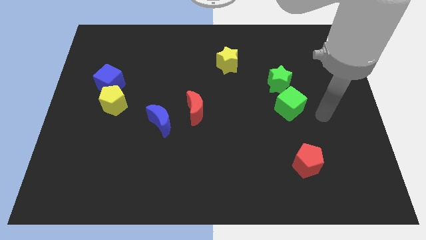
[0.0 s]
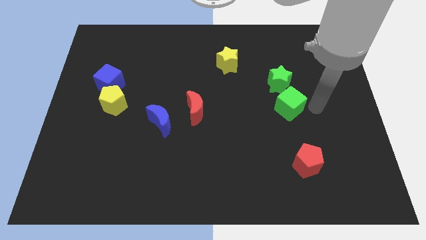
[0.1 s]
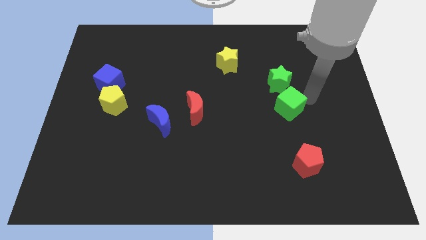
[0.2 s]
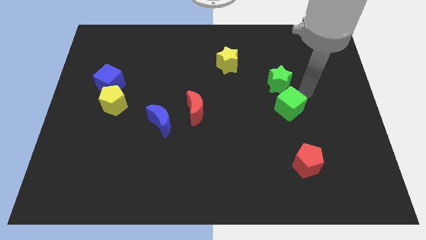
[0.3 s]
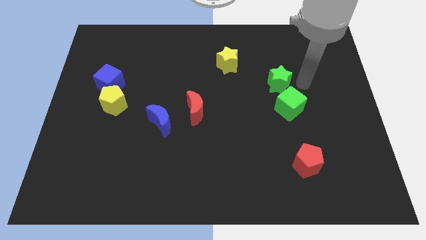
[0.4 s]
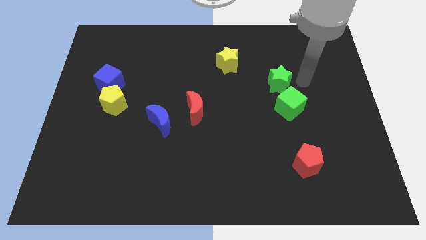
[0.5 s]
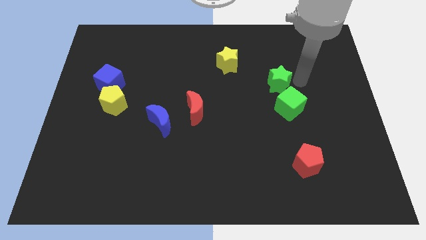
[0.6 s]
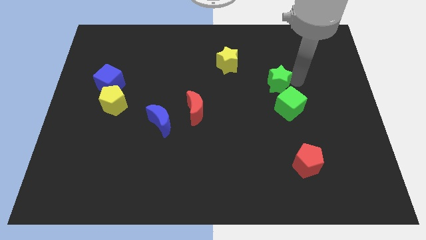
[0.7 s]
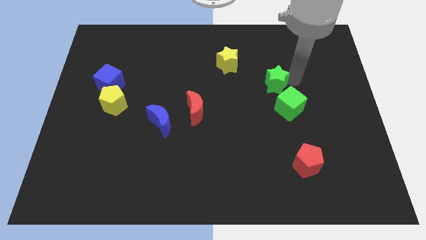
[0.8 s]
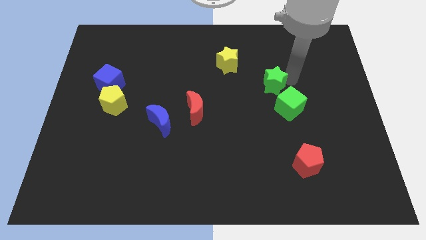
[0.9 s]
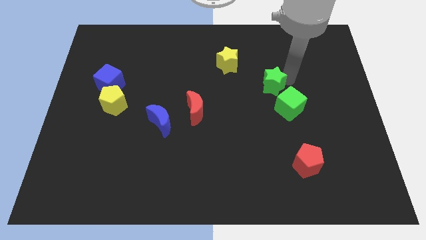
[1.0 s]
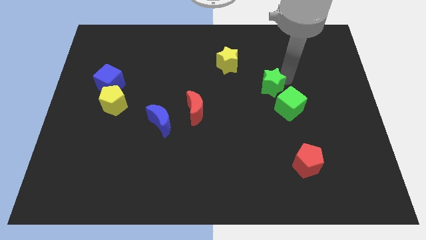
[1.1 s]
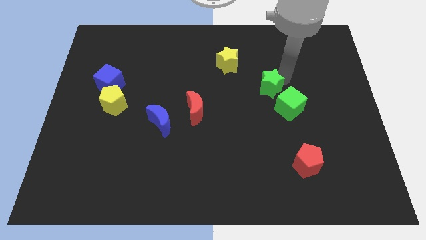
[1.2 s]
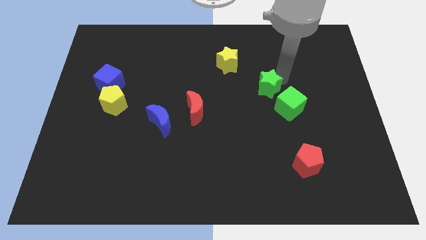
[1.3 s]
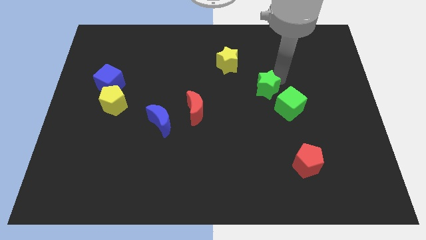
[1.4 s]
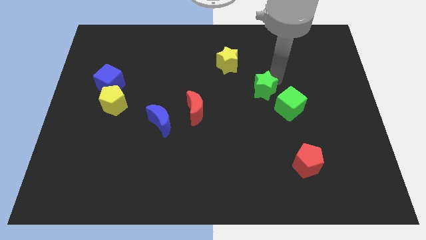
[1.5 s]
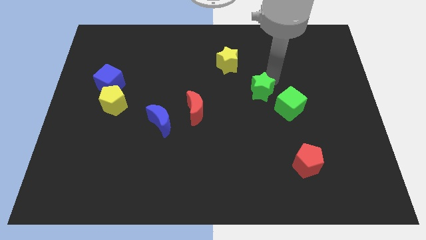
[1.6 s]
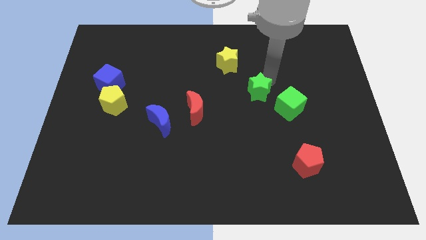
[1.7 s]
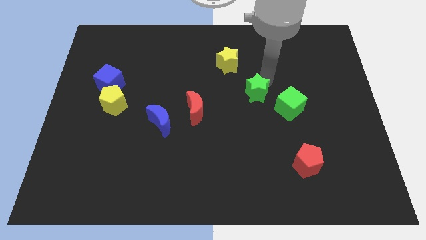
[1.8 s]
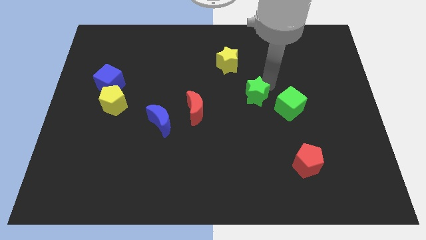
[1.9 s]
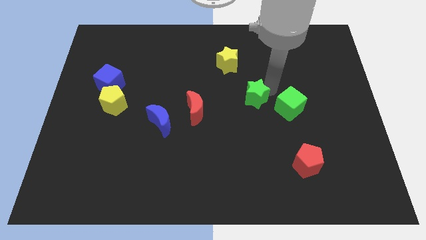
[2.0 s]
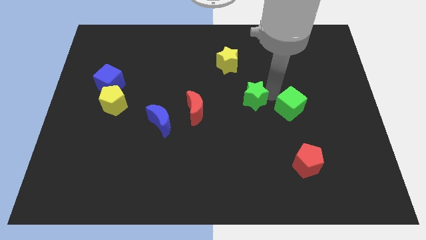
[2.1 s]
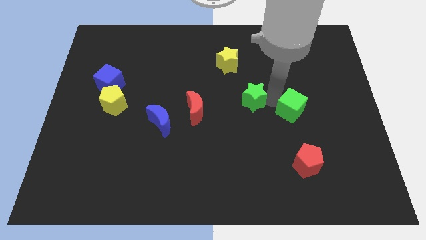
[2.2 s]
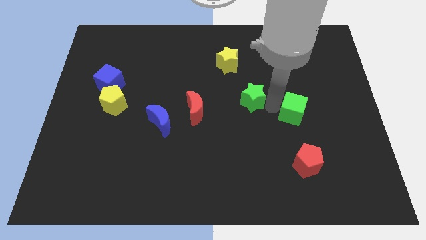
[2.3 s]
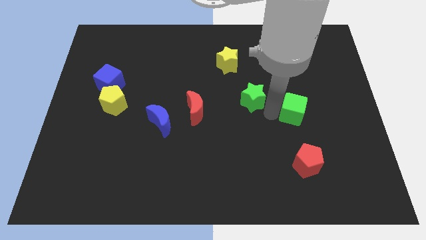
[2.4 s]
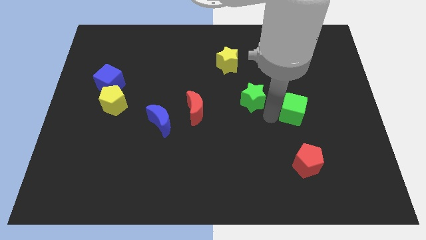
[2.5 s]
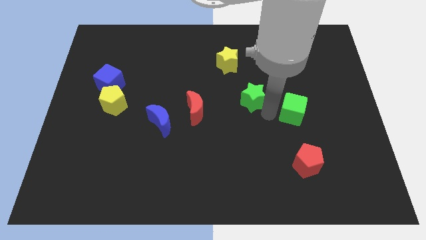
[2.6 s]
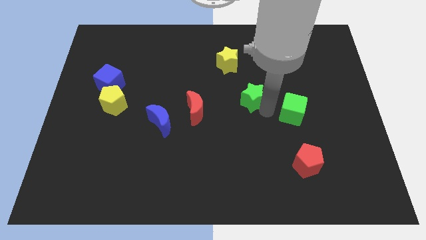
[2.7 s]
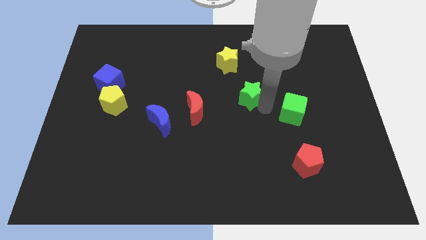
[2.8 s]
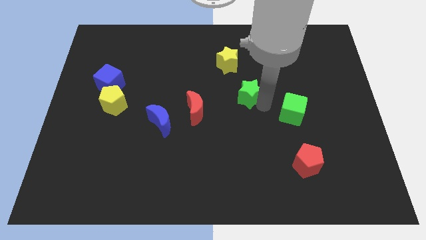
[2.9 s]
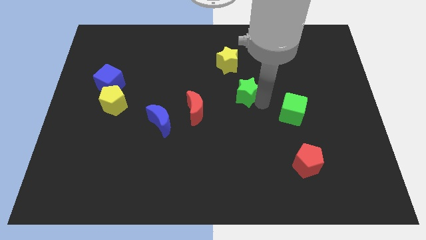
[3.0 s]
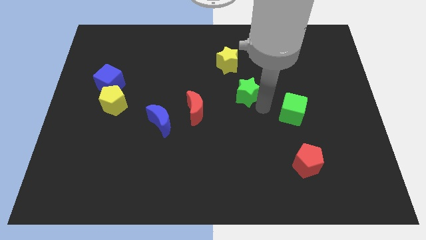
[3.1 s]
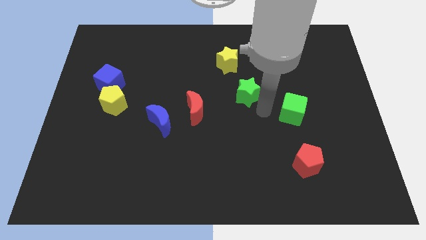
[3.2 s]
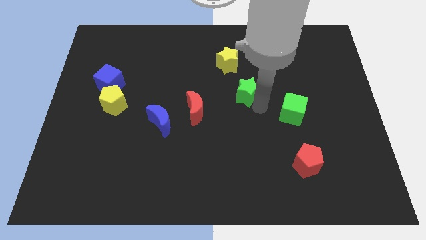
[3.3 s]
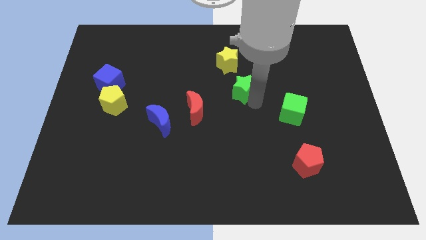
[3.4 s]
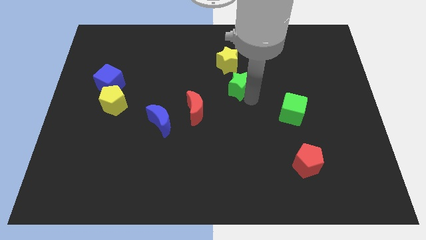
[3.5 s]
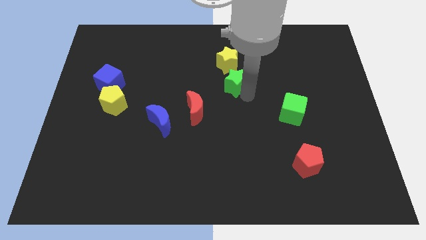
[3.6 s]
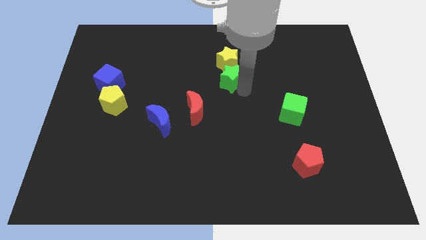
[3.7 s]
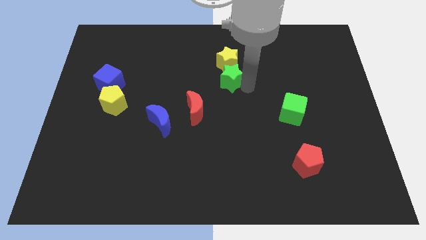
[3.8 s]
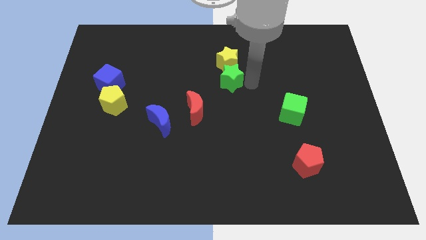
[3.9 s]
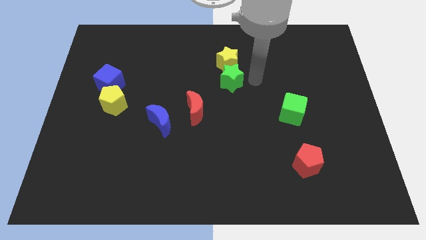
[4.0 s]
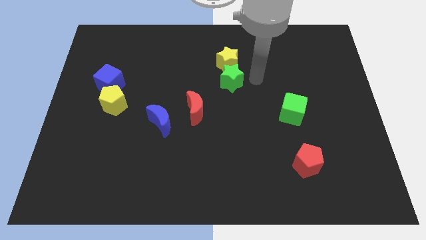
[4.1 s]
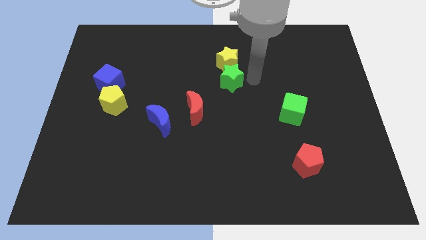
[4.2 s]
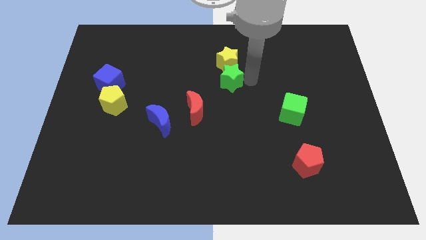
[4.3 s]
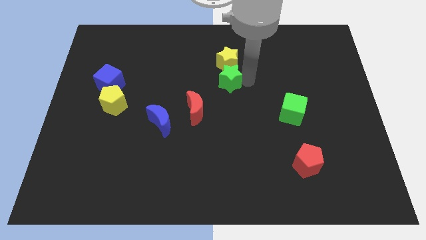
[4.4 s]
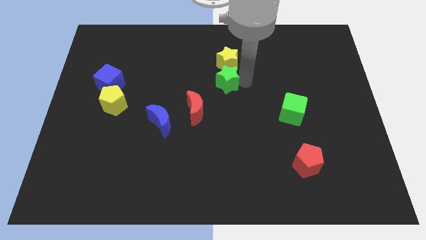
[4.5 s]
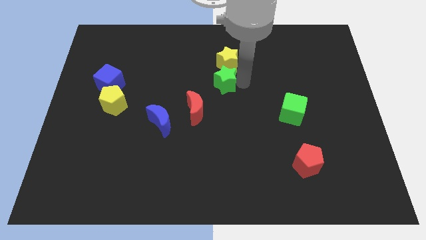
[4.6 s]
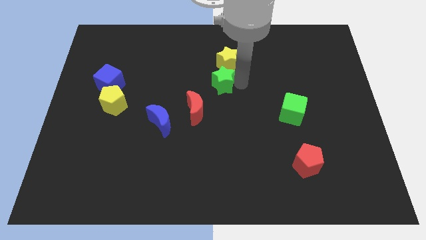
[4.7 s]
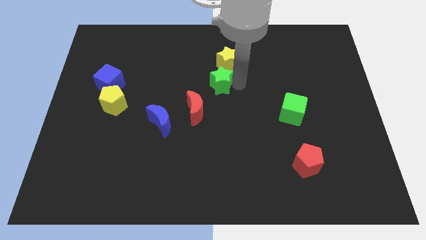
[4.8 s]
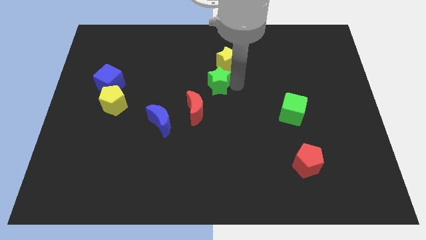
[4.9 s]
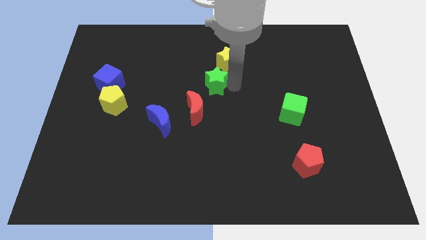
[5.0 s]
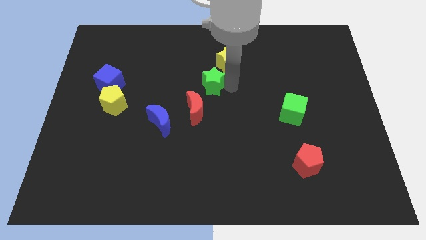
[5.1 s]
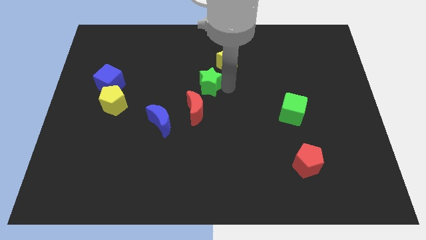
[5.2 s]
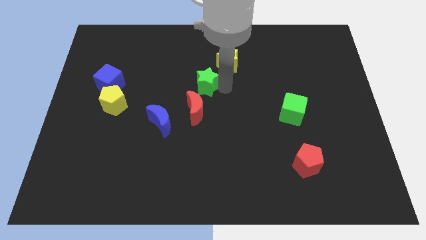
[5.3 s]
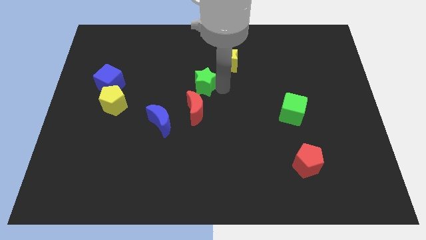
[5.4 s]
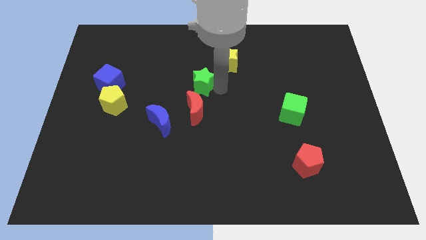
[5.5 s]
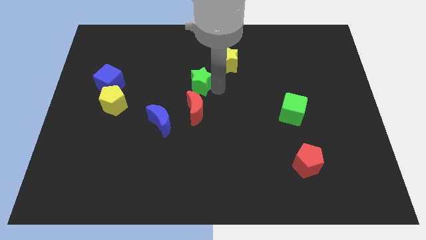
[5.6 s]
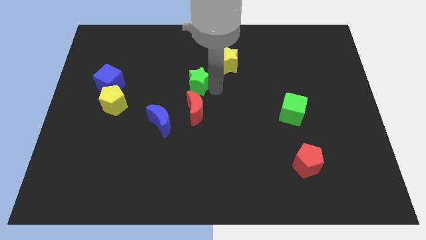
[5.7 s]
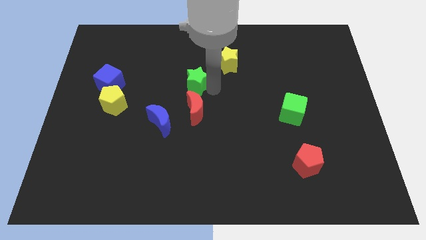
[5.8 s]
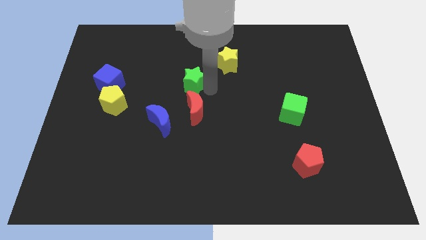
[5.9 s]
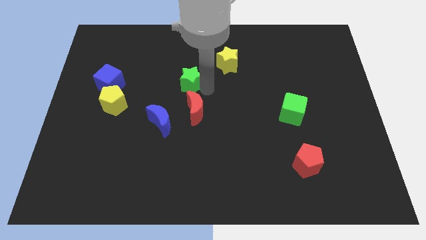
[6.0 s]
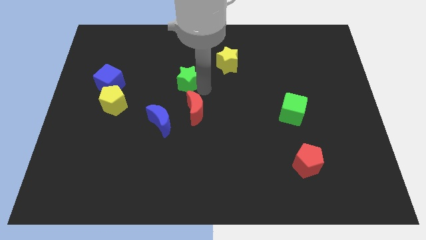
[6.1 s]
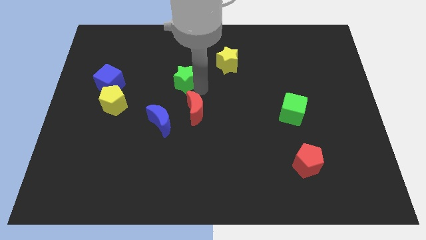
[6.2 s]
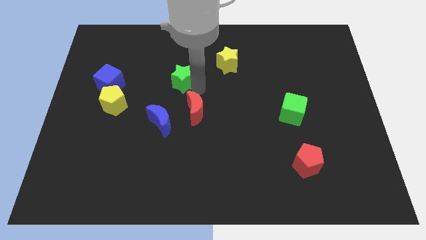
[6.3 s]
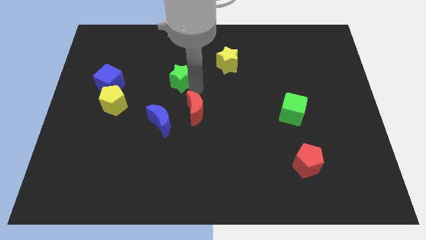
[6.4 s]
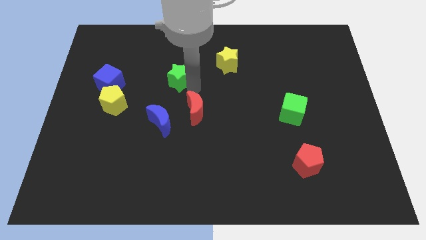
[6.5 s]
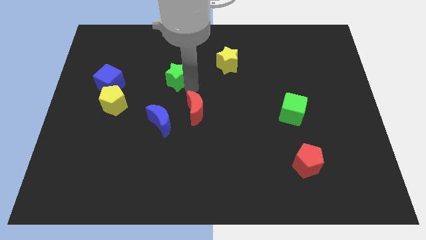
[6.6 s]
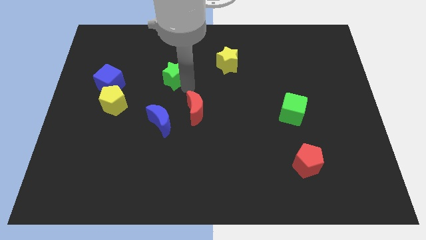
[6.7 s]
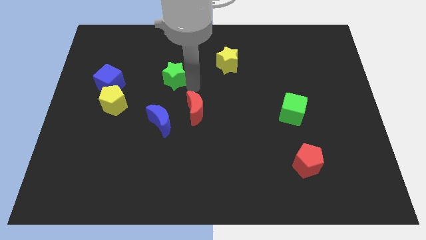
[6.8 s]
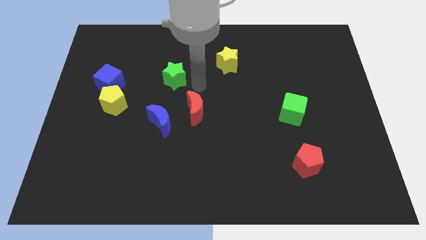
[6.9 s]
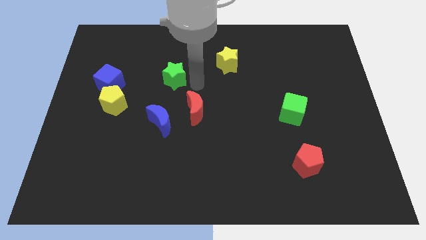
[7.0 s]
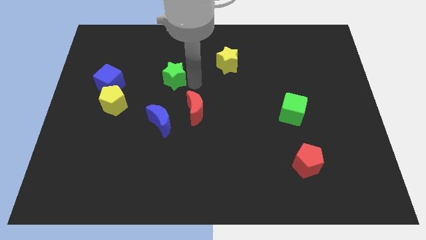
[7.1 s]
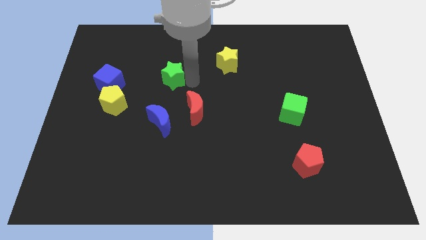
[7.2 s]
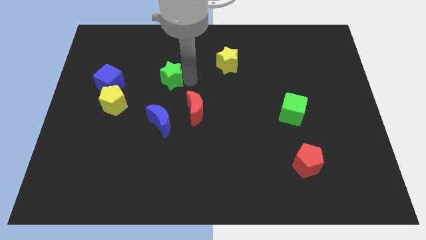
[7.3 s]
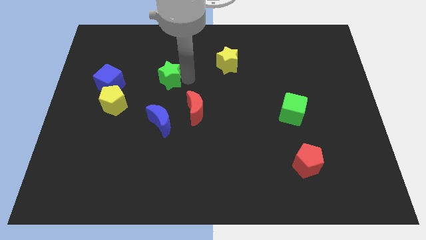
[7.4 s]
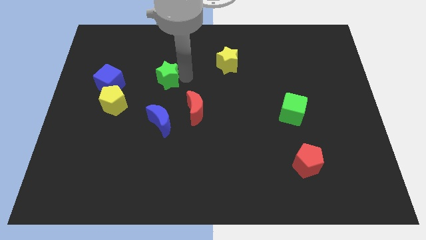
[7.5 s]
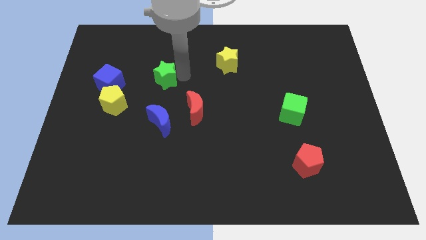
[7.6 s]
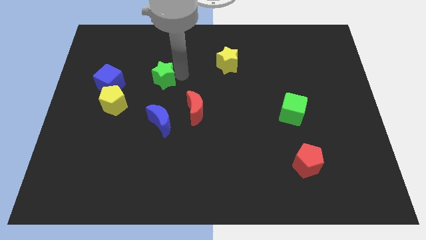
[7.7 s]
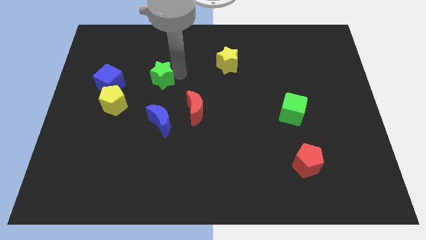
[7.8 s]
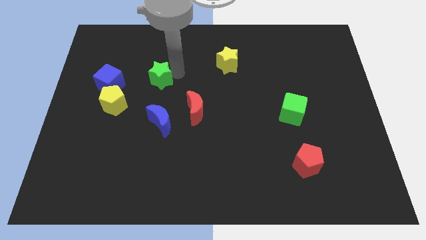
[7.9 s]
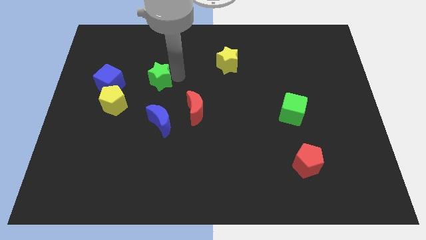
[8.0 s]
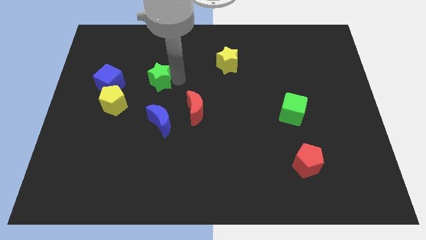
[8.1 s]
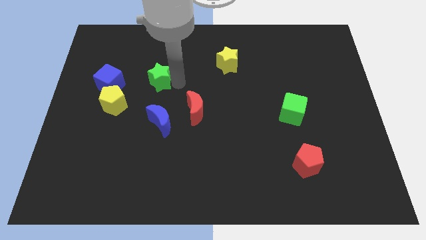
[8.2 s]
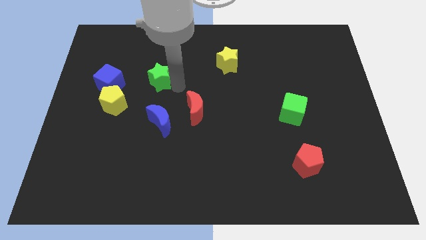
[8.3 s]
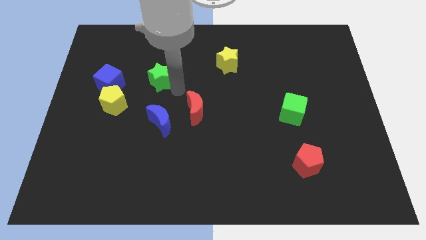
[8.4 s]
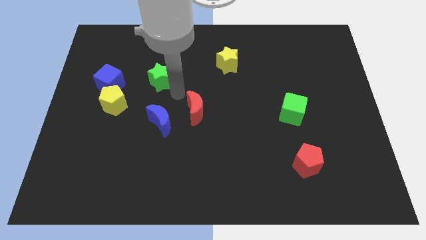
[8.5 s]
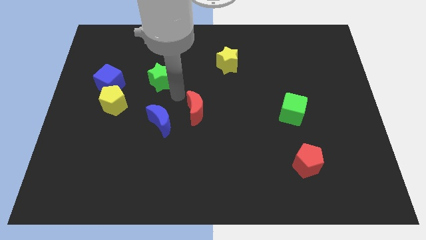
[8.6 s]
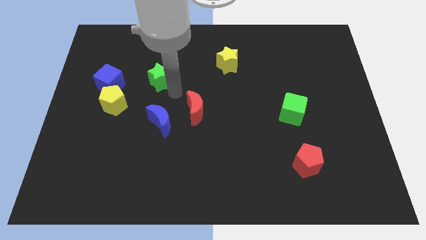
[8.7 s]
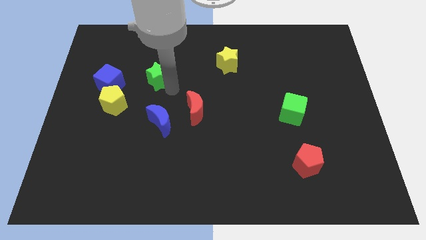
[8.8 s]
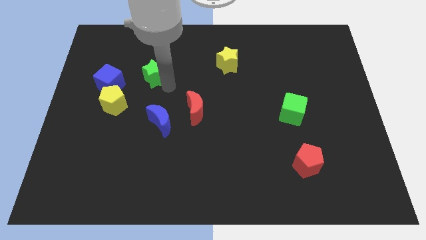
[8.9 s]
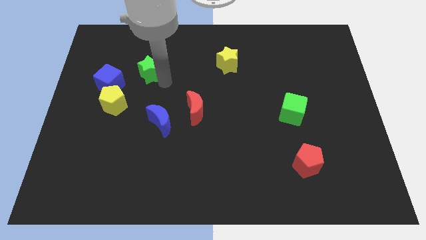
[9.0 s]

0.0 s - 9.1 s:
move the green star to the top right of the blue cube
